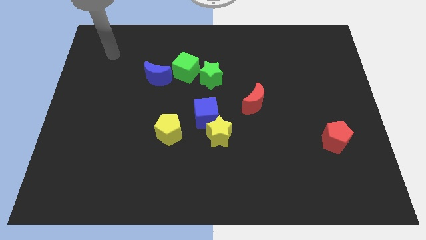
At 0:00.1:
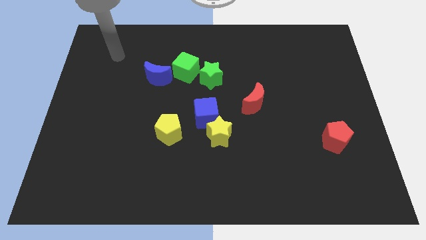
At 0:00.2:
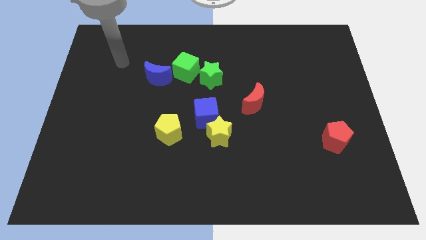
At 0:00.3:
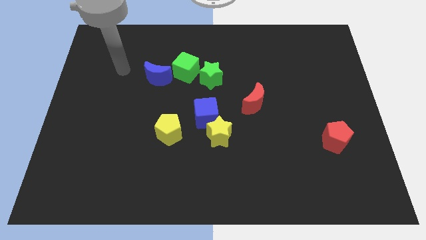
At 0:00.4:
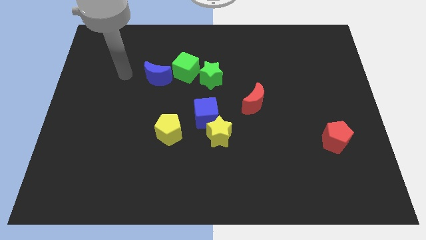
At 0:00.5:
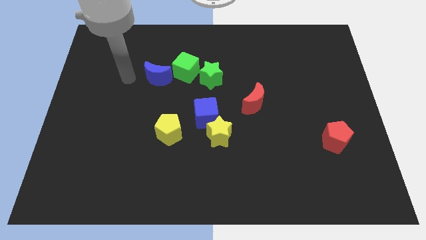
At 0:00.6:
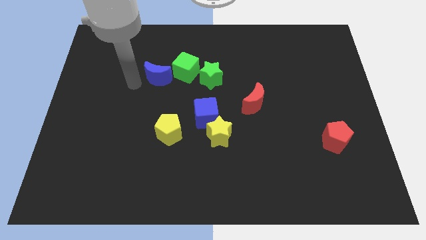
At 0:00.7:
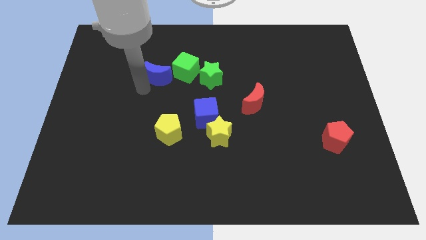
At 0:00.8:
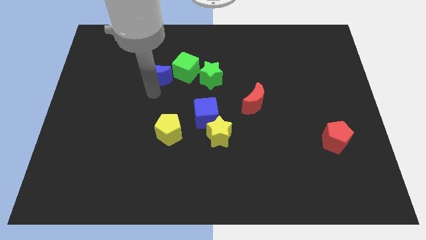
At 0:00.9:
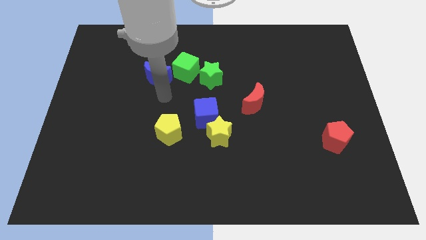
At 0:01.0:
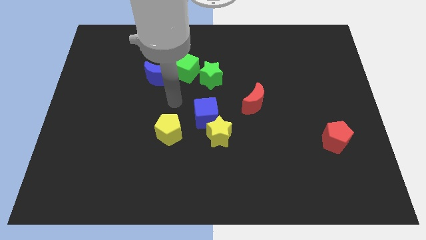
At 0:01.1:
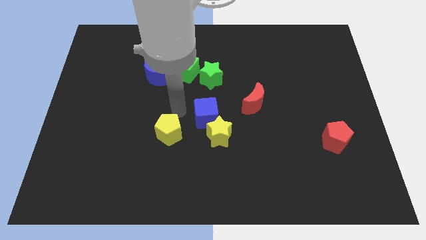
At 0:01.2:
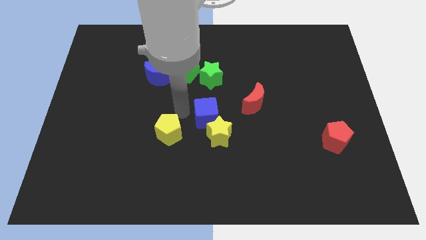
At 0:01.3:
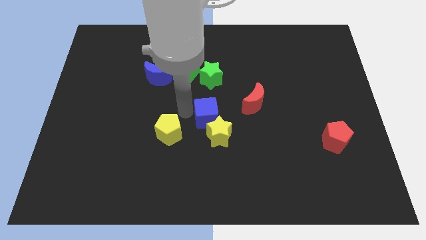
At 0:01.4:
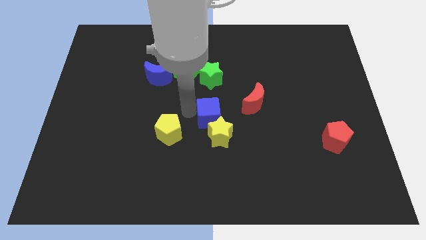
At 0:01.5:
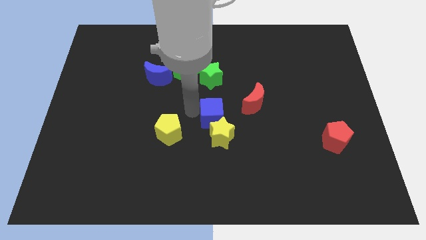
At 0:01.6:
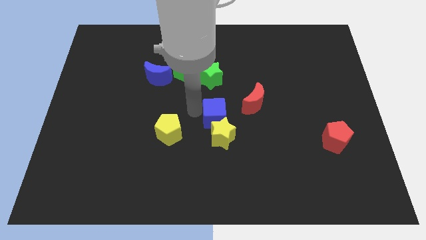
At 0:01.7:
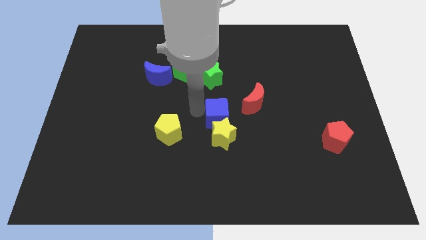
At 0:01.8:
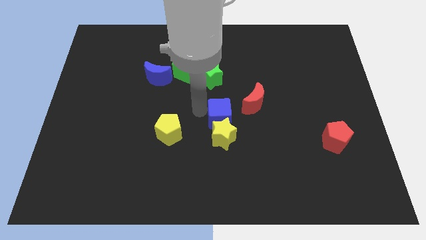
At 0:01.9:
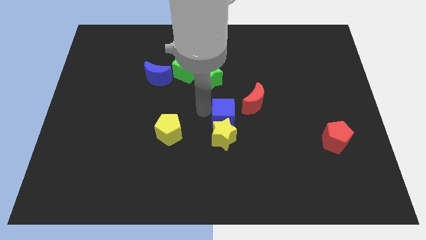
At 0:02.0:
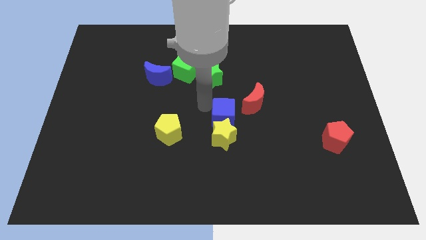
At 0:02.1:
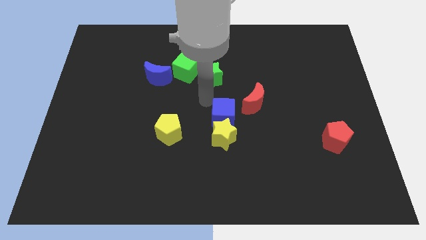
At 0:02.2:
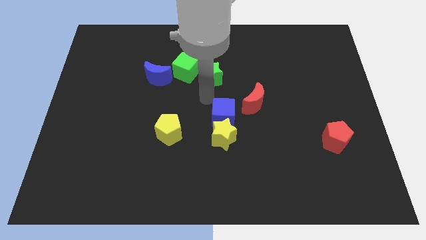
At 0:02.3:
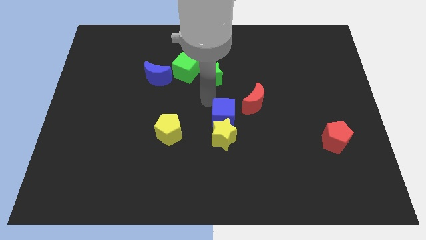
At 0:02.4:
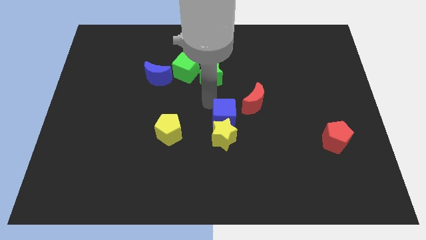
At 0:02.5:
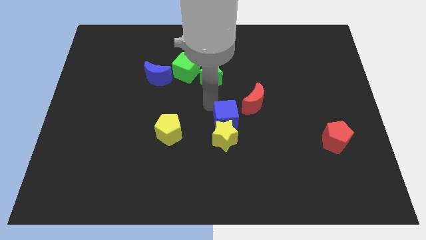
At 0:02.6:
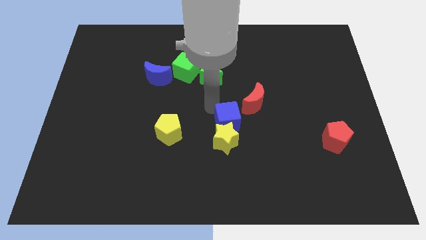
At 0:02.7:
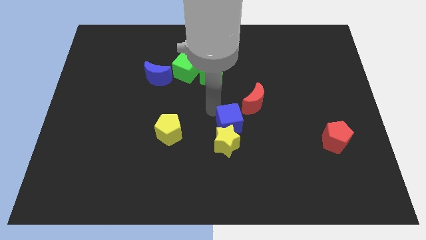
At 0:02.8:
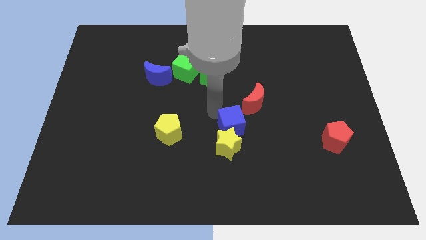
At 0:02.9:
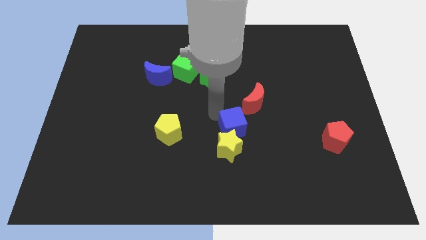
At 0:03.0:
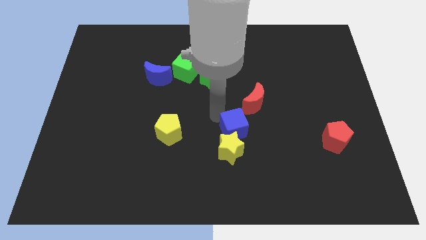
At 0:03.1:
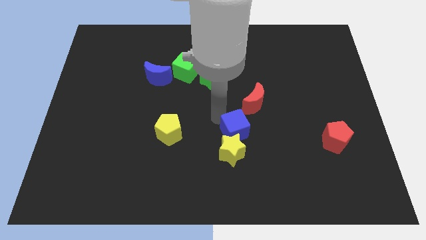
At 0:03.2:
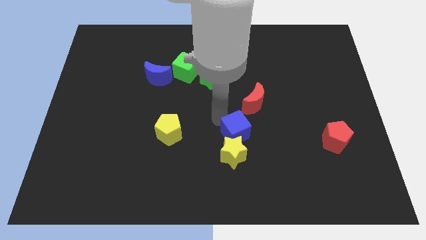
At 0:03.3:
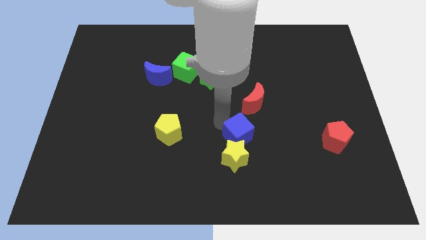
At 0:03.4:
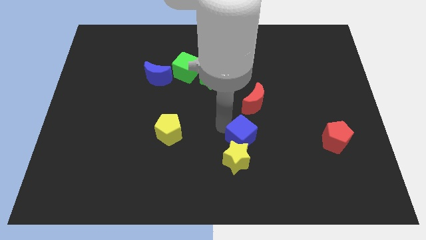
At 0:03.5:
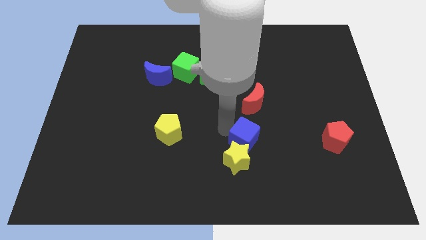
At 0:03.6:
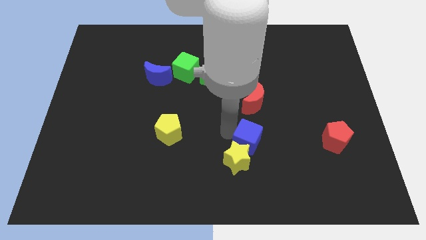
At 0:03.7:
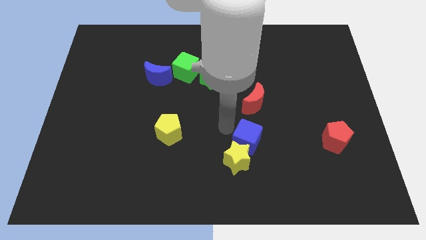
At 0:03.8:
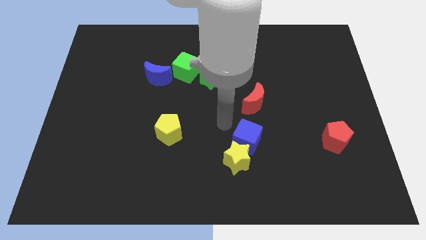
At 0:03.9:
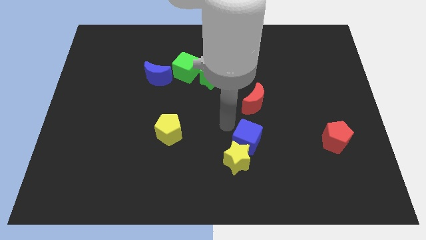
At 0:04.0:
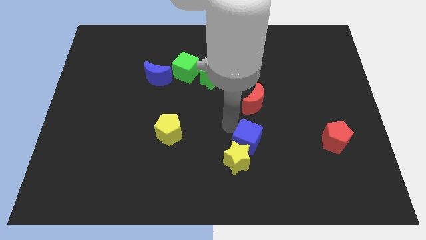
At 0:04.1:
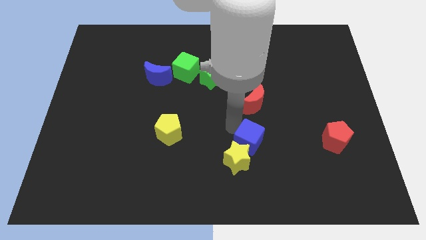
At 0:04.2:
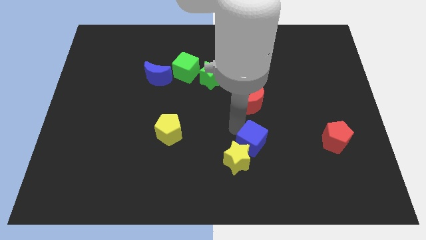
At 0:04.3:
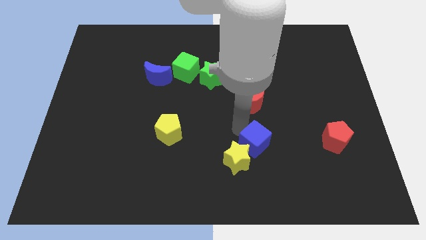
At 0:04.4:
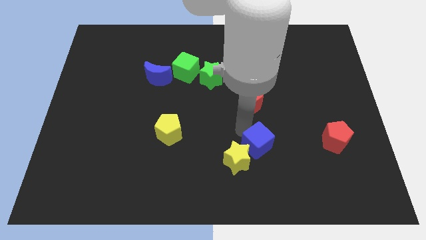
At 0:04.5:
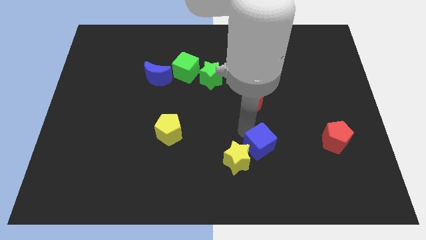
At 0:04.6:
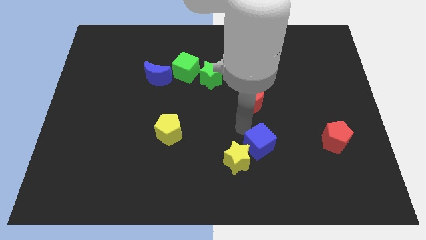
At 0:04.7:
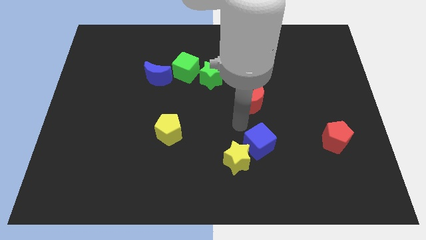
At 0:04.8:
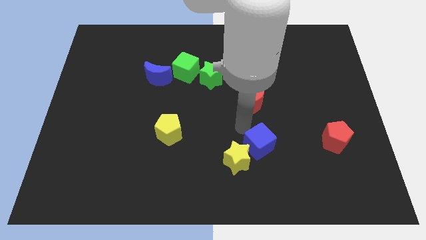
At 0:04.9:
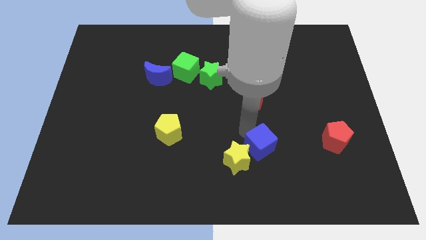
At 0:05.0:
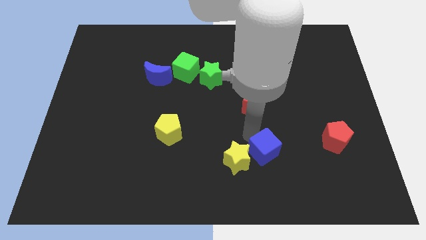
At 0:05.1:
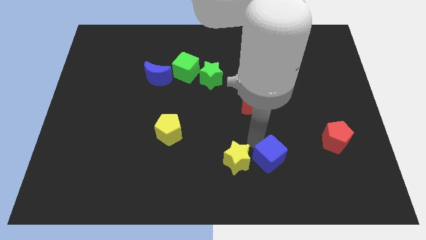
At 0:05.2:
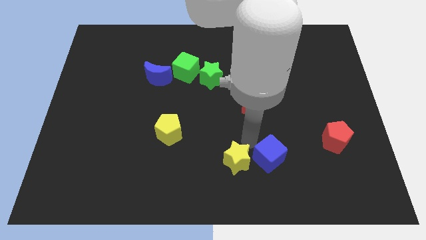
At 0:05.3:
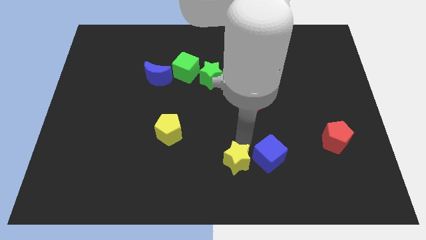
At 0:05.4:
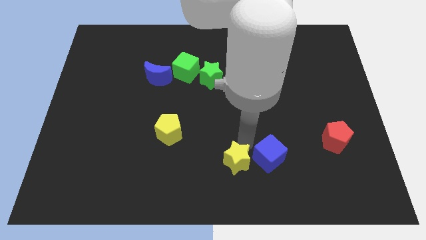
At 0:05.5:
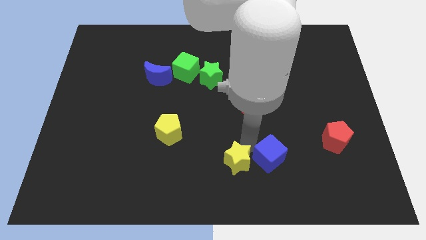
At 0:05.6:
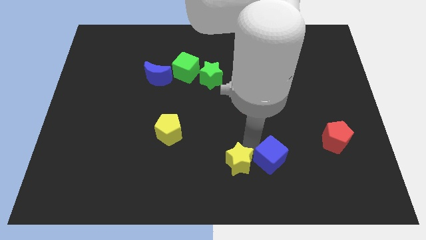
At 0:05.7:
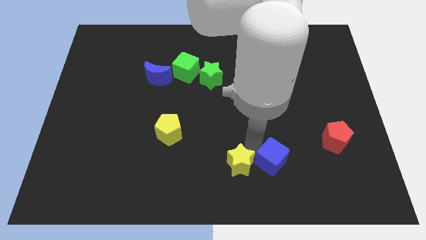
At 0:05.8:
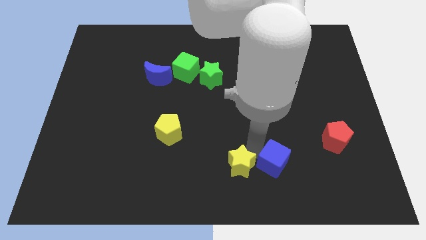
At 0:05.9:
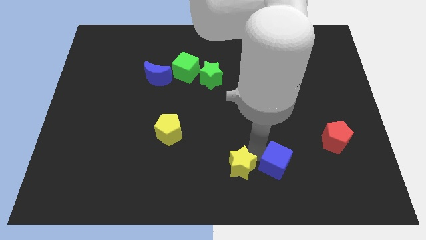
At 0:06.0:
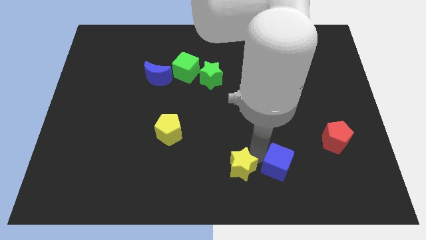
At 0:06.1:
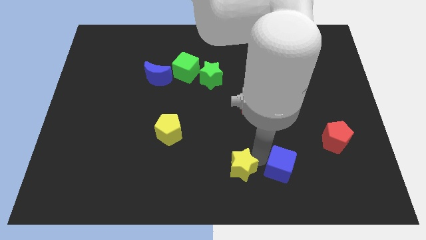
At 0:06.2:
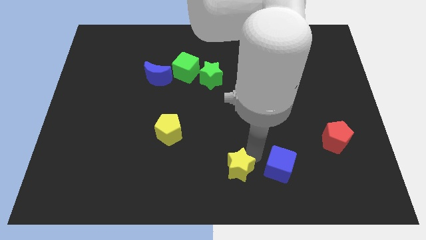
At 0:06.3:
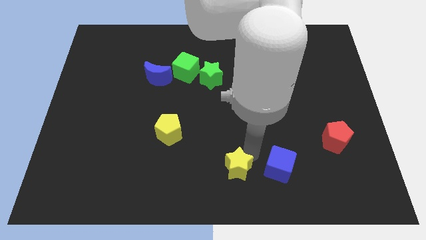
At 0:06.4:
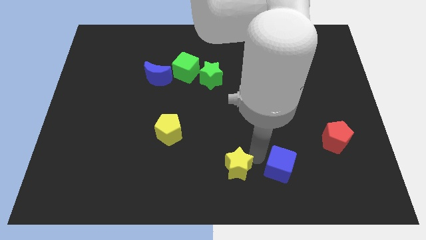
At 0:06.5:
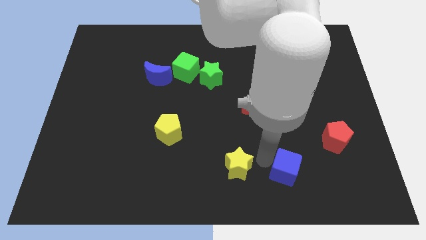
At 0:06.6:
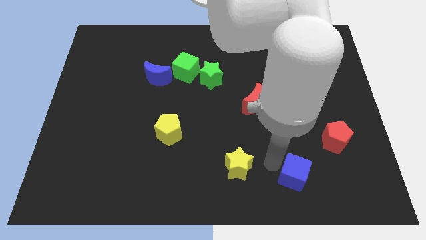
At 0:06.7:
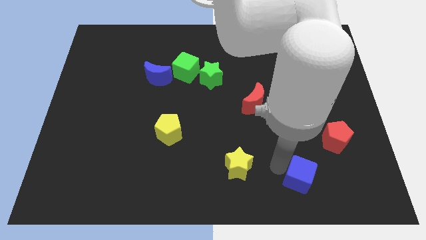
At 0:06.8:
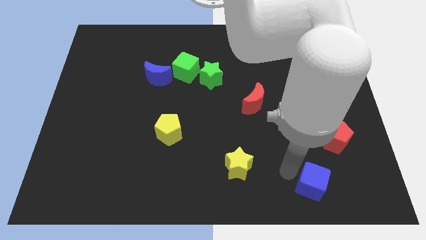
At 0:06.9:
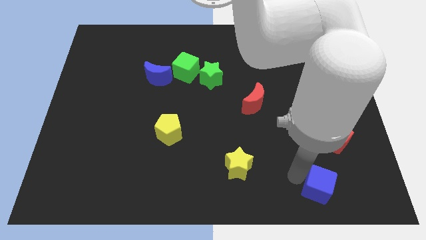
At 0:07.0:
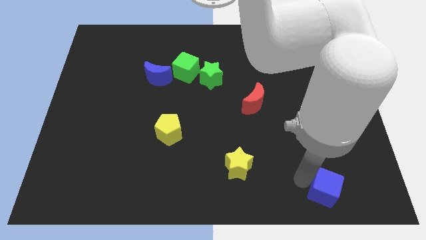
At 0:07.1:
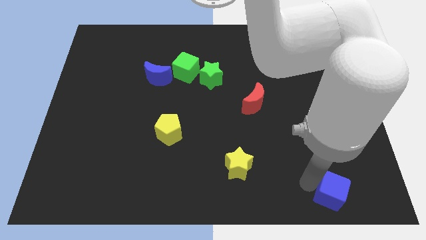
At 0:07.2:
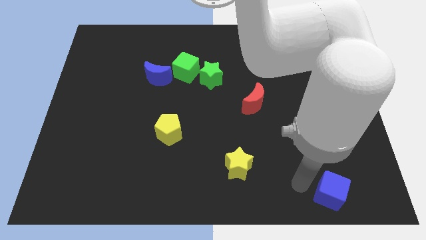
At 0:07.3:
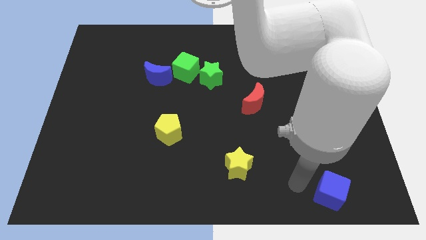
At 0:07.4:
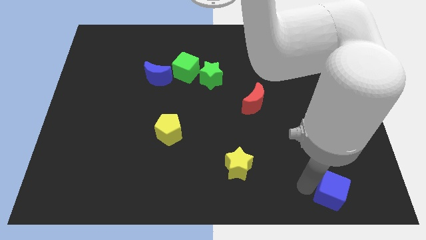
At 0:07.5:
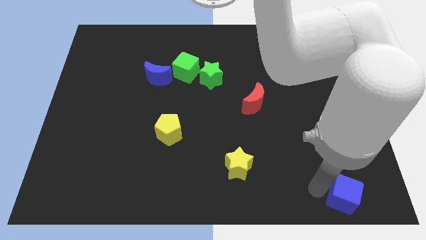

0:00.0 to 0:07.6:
move the blue cube to the lower right corner
